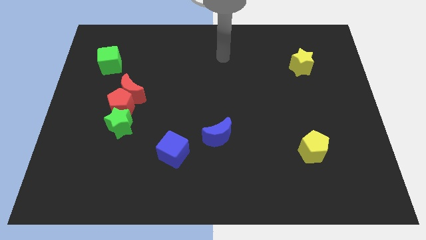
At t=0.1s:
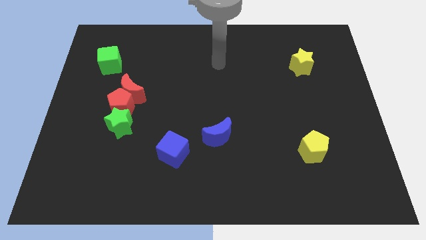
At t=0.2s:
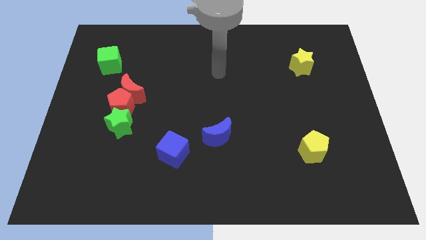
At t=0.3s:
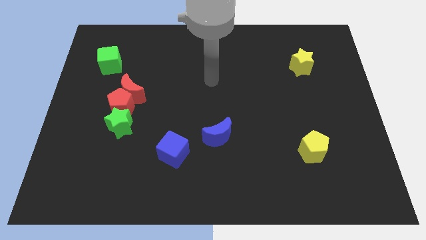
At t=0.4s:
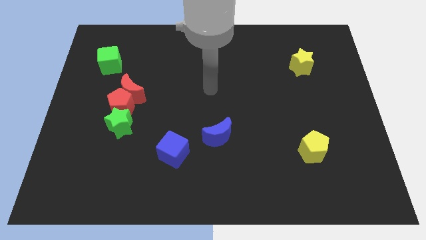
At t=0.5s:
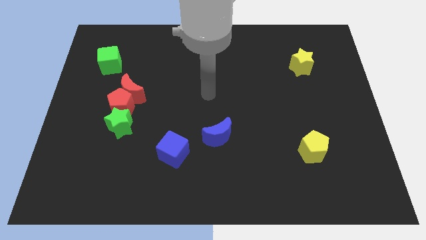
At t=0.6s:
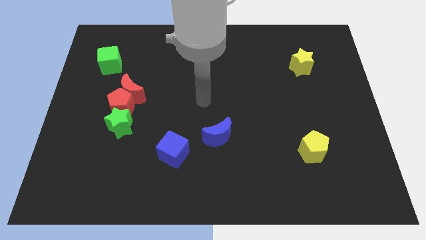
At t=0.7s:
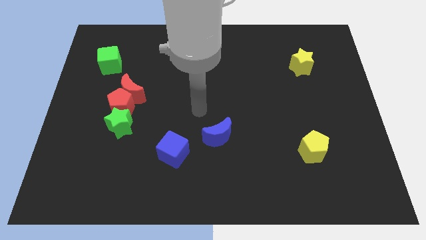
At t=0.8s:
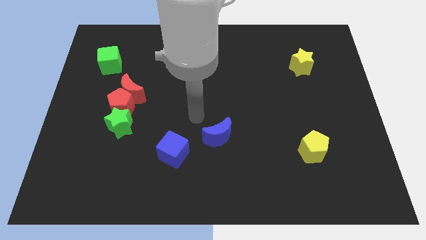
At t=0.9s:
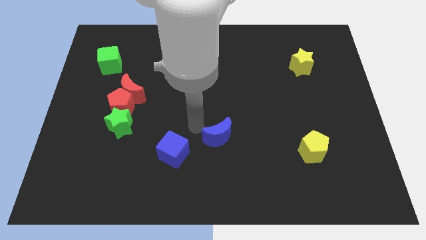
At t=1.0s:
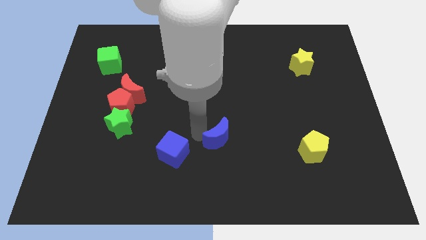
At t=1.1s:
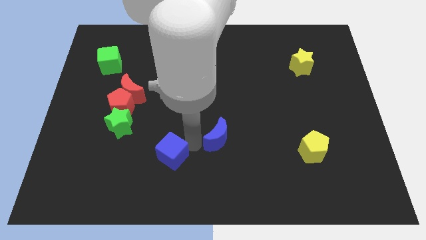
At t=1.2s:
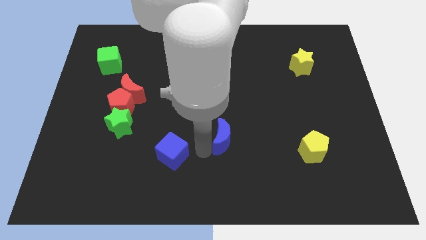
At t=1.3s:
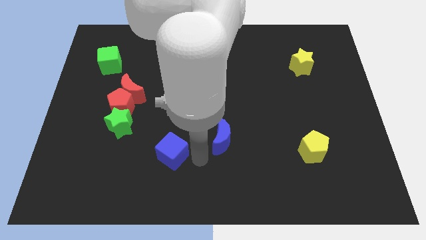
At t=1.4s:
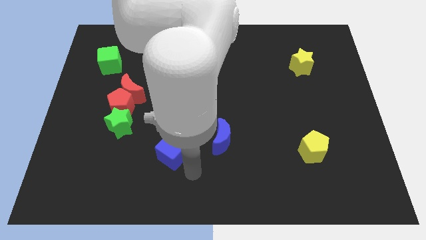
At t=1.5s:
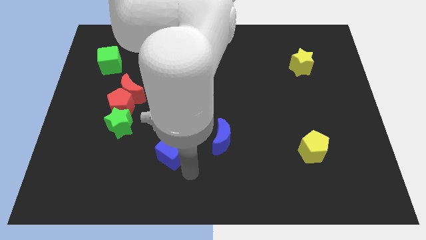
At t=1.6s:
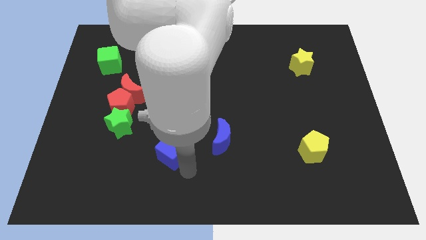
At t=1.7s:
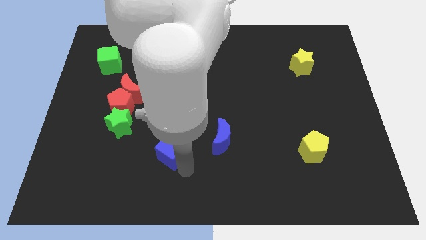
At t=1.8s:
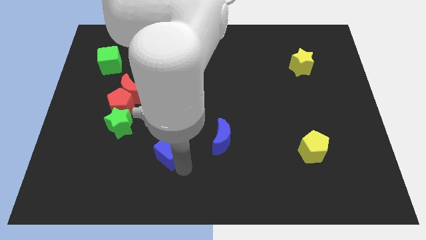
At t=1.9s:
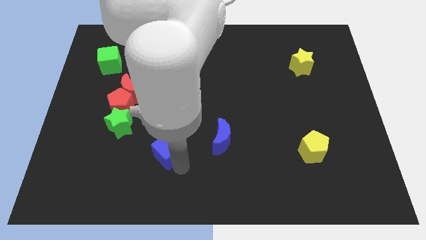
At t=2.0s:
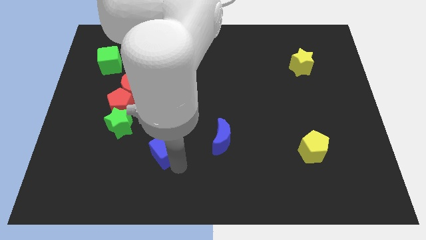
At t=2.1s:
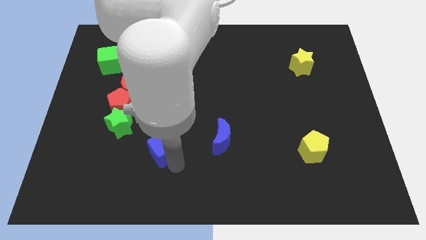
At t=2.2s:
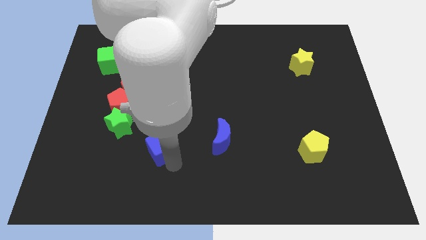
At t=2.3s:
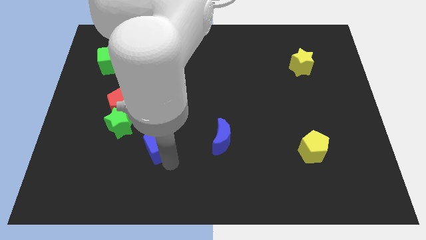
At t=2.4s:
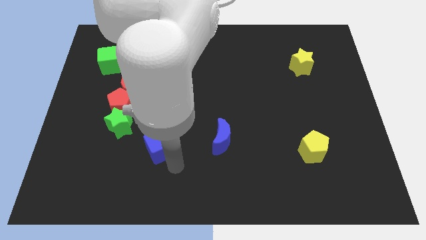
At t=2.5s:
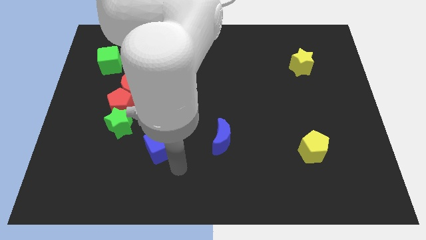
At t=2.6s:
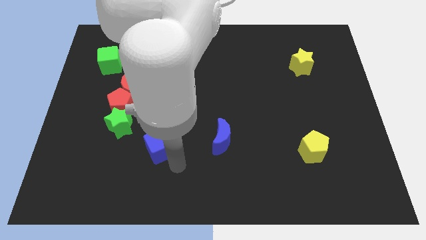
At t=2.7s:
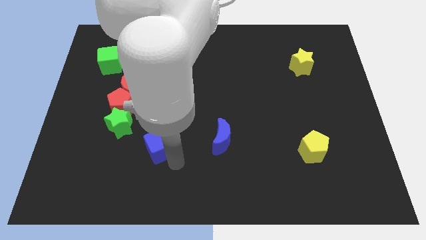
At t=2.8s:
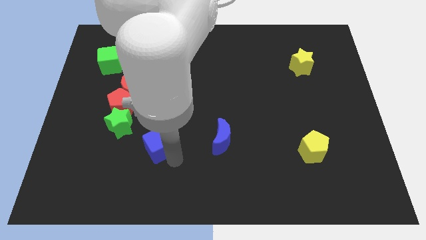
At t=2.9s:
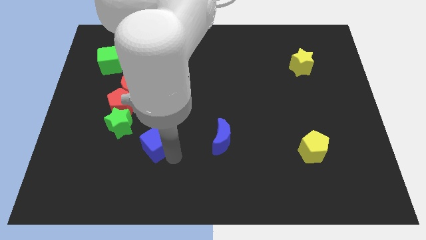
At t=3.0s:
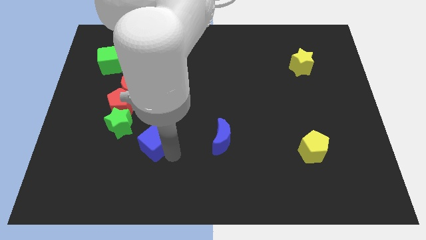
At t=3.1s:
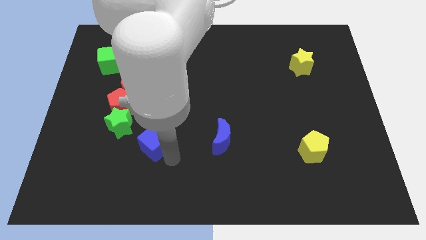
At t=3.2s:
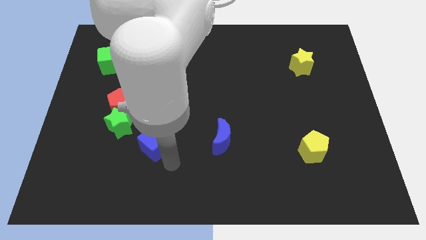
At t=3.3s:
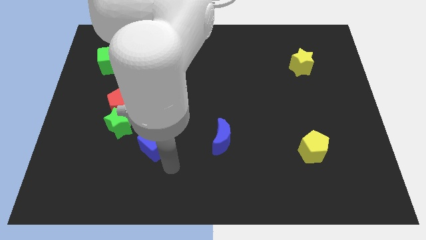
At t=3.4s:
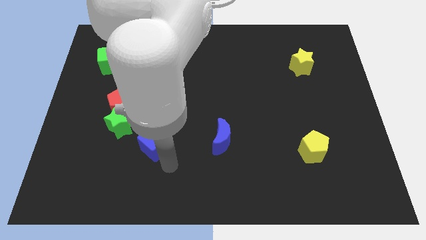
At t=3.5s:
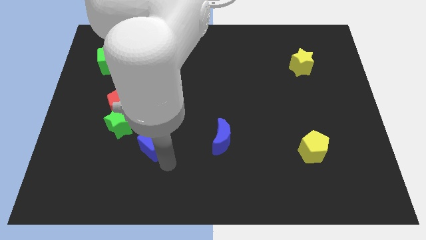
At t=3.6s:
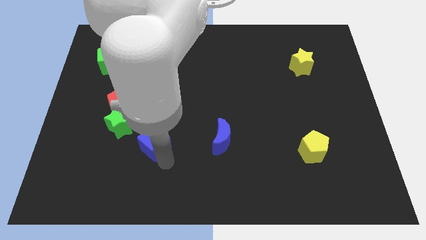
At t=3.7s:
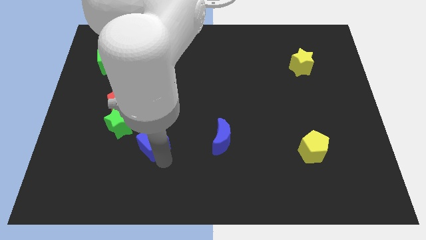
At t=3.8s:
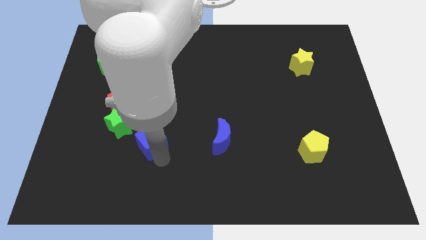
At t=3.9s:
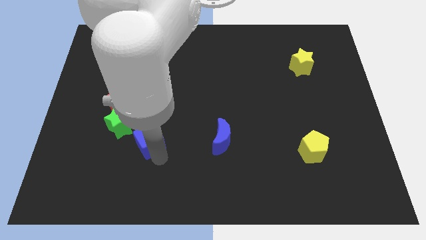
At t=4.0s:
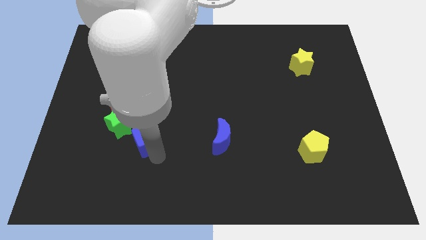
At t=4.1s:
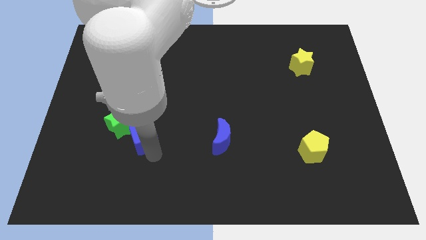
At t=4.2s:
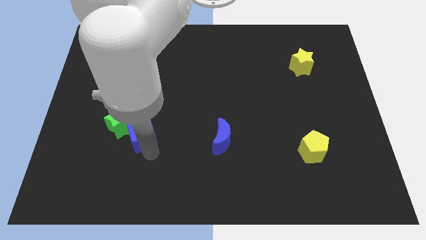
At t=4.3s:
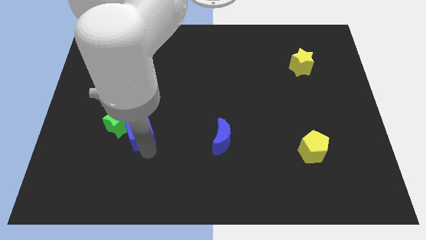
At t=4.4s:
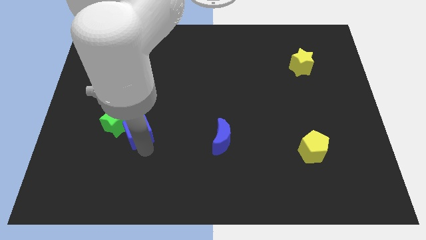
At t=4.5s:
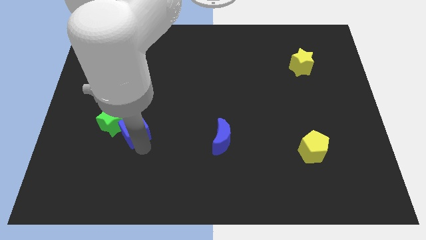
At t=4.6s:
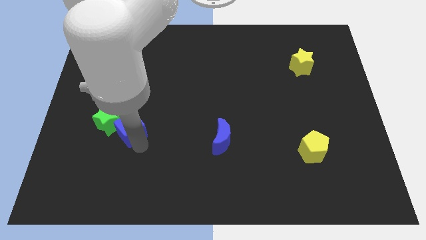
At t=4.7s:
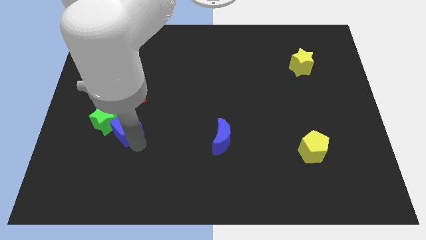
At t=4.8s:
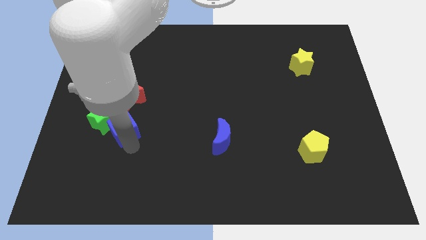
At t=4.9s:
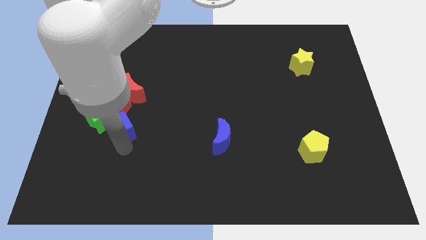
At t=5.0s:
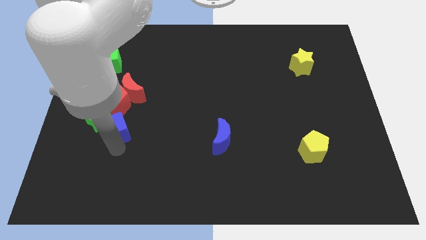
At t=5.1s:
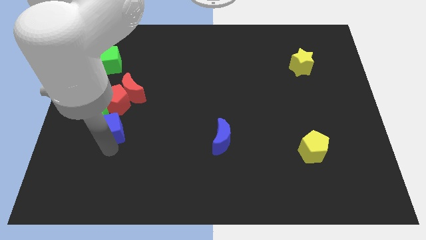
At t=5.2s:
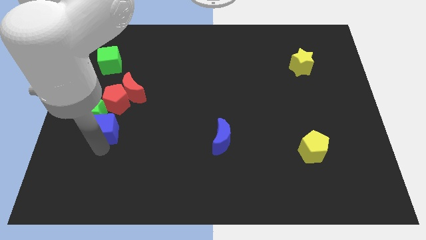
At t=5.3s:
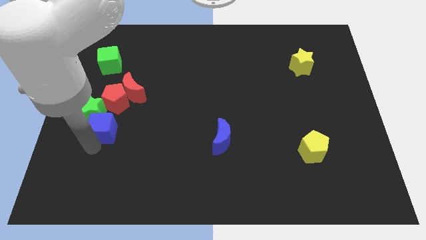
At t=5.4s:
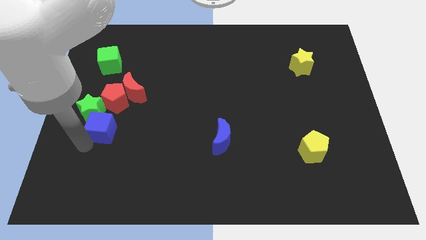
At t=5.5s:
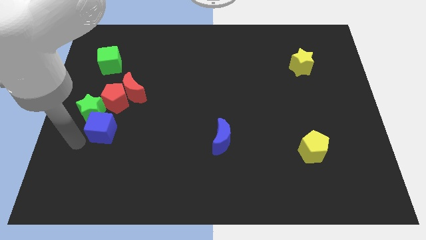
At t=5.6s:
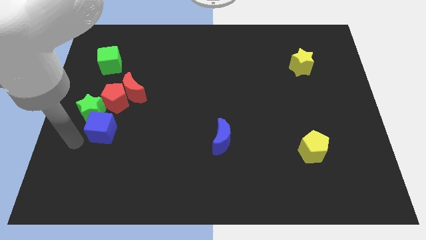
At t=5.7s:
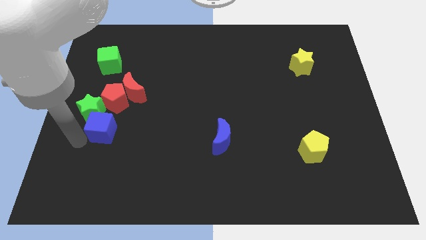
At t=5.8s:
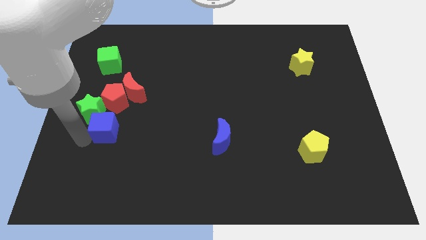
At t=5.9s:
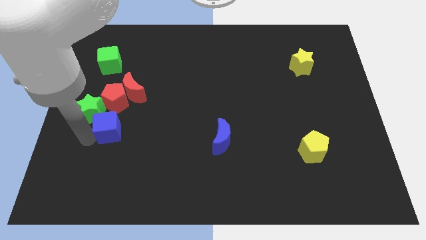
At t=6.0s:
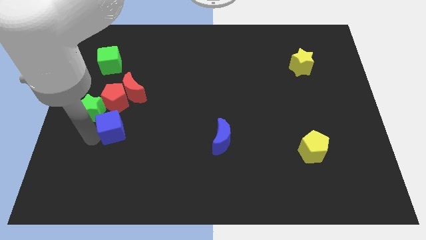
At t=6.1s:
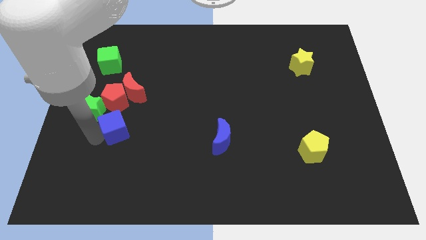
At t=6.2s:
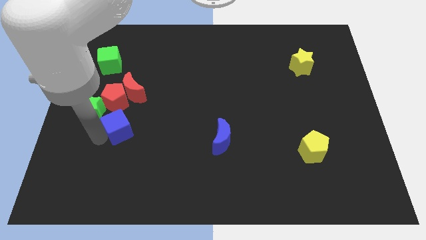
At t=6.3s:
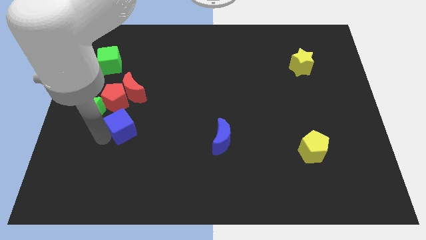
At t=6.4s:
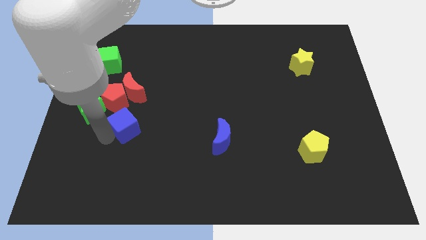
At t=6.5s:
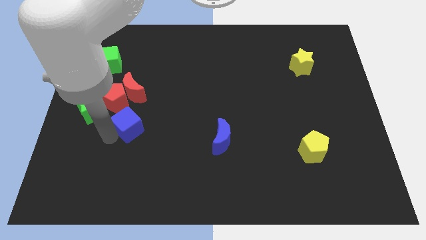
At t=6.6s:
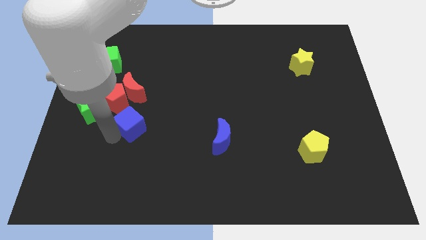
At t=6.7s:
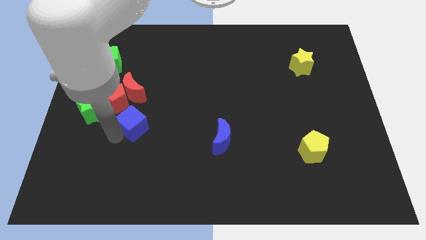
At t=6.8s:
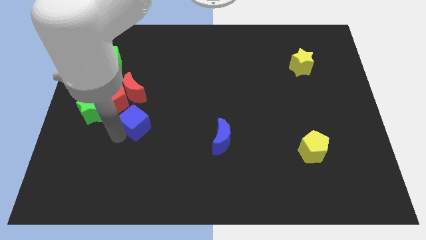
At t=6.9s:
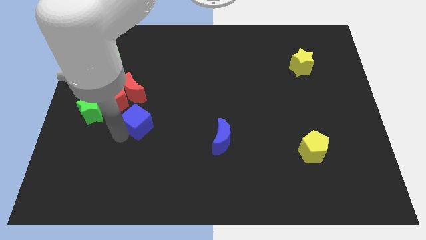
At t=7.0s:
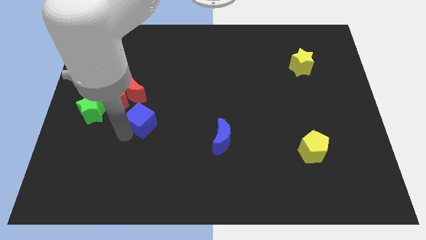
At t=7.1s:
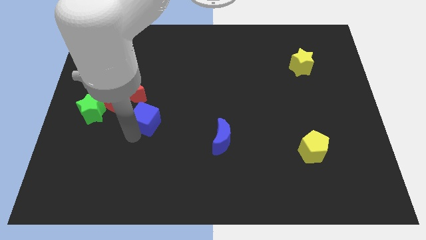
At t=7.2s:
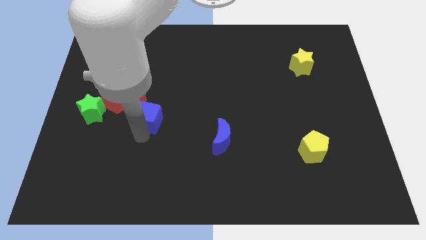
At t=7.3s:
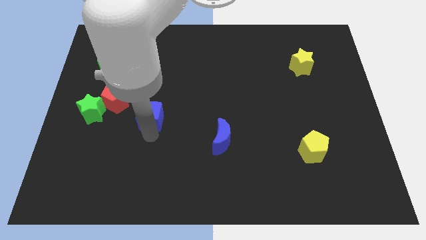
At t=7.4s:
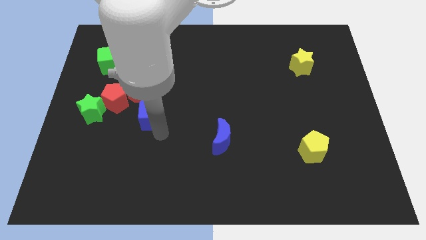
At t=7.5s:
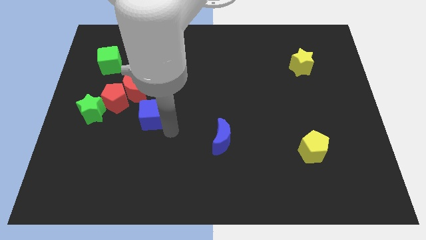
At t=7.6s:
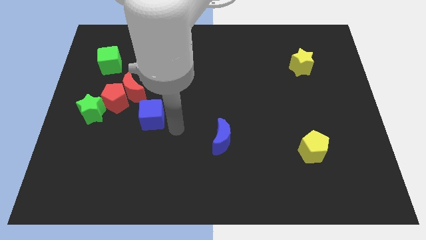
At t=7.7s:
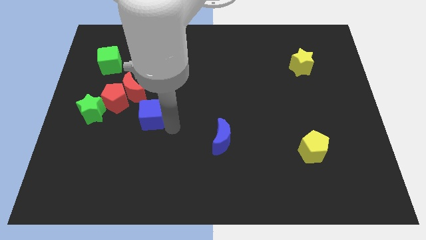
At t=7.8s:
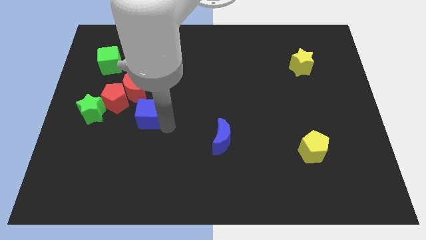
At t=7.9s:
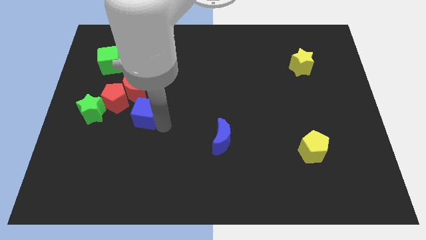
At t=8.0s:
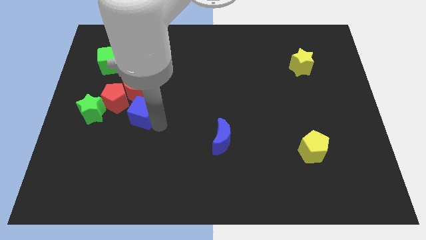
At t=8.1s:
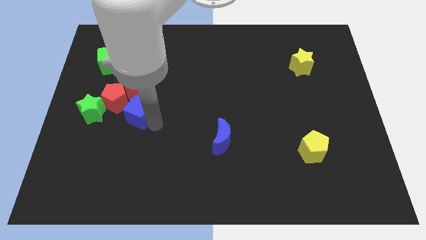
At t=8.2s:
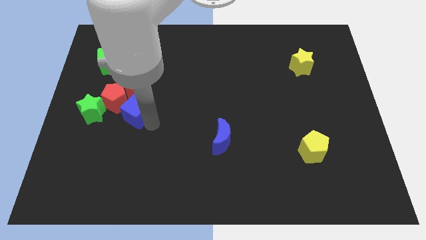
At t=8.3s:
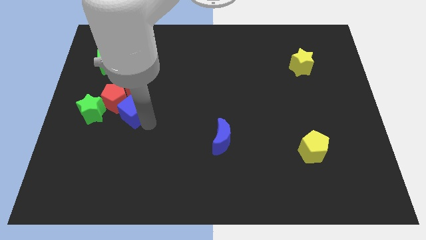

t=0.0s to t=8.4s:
put the blue cube to the red pentagon
